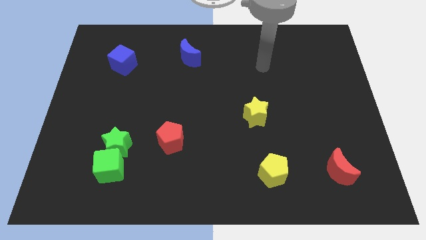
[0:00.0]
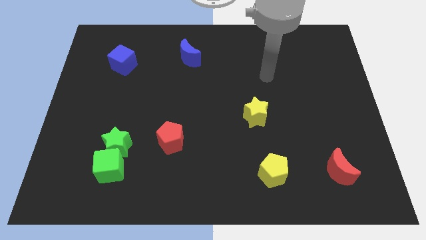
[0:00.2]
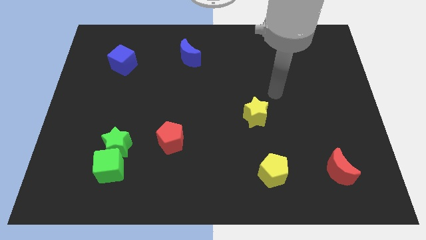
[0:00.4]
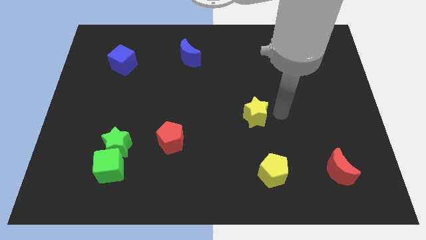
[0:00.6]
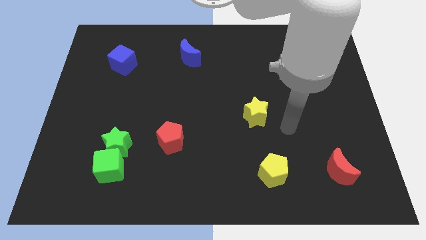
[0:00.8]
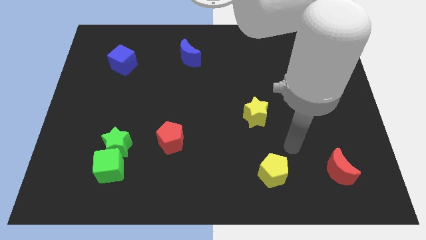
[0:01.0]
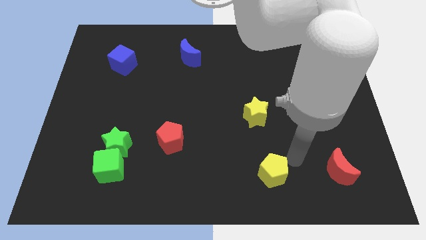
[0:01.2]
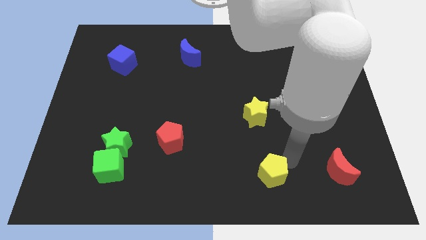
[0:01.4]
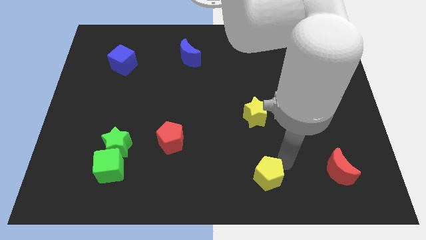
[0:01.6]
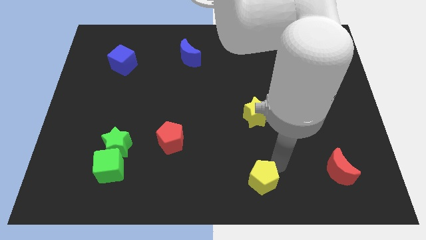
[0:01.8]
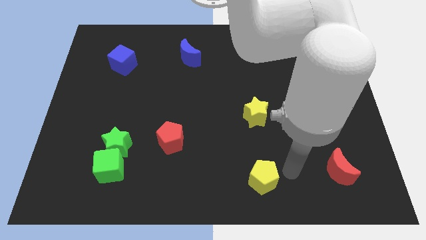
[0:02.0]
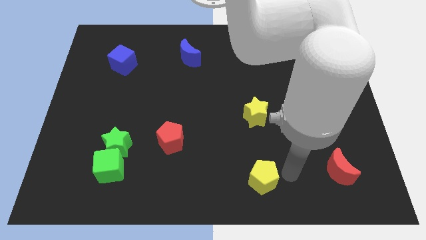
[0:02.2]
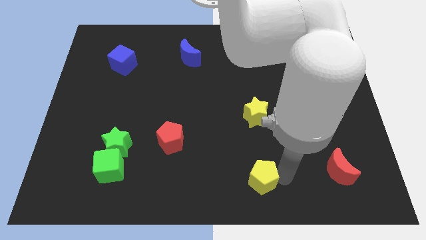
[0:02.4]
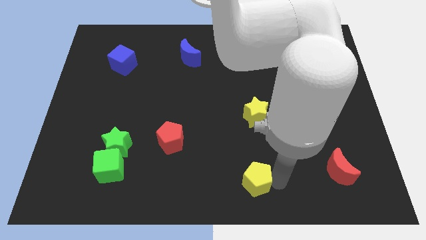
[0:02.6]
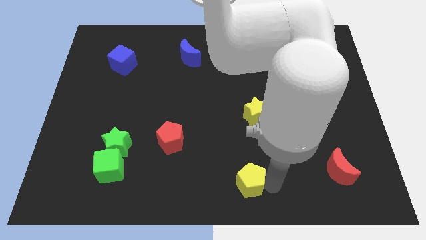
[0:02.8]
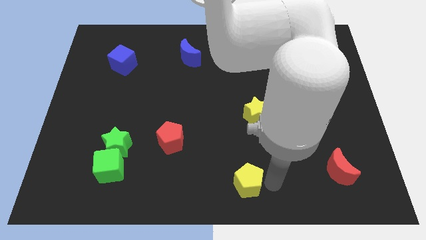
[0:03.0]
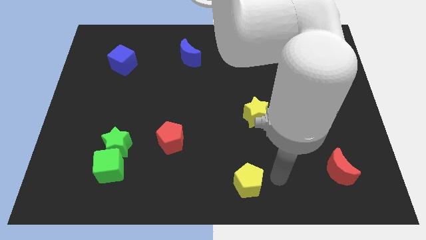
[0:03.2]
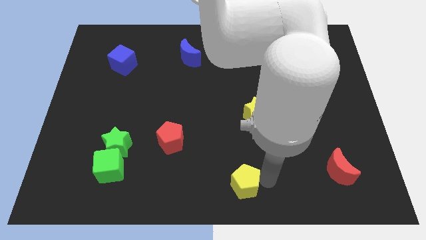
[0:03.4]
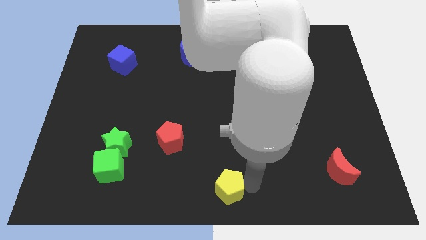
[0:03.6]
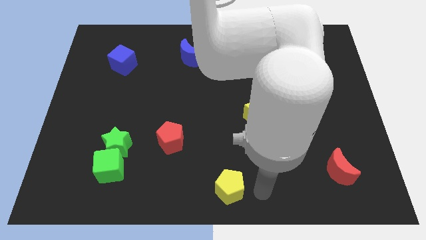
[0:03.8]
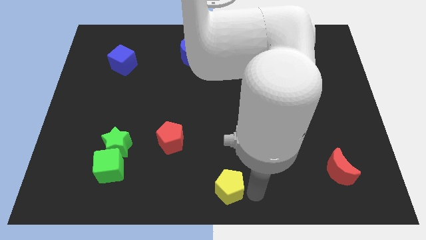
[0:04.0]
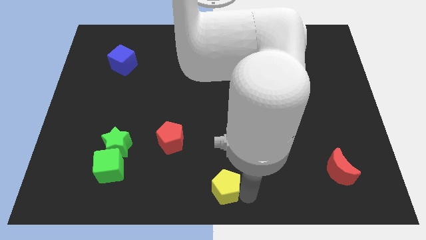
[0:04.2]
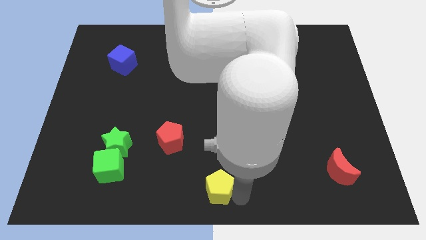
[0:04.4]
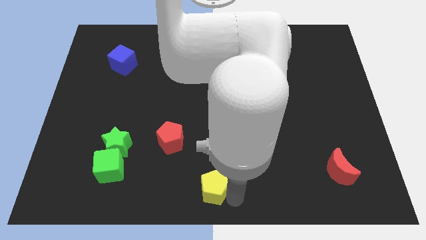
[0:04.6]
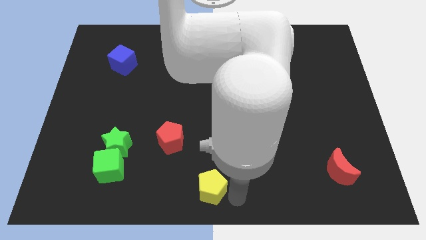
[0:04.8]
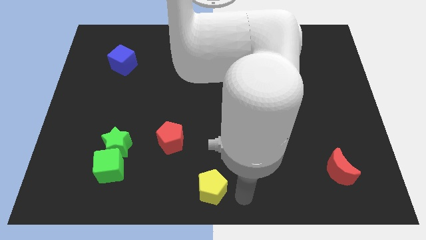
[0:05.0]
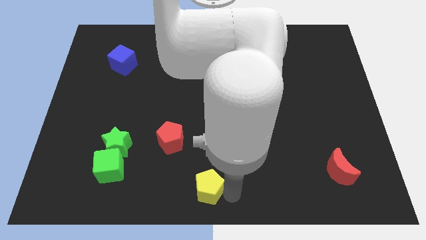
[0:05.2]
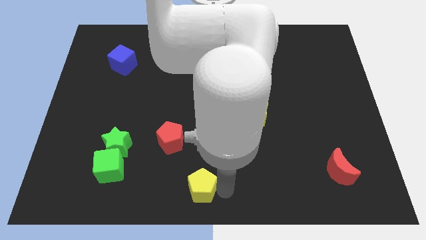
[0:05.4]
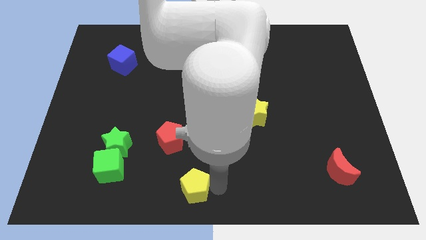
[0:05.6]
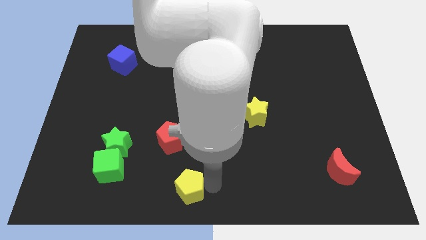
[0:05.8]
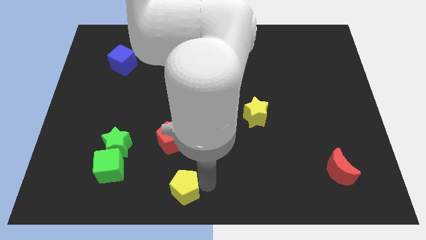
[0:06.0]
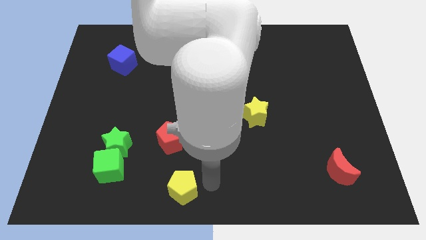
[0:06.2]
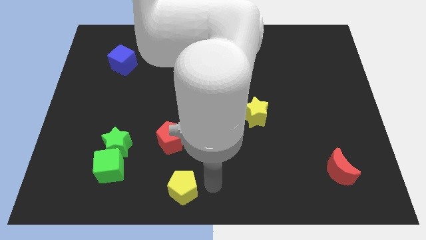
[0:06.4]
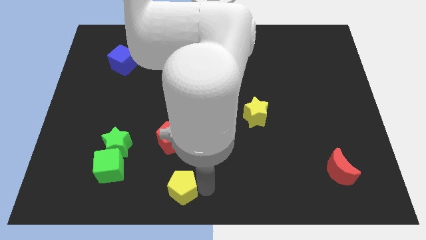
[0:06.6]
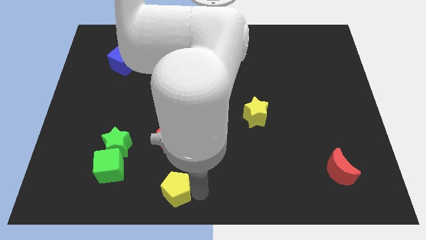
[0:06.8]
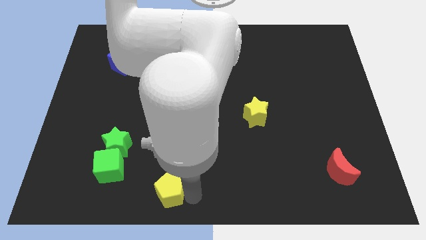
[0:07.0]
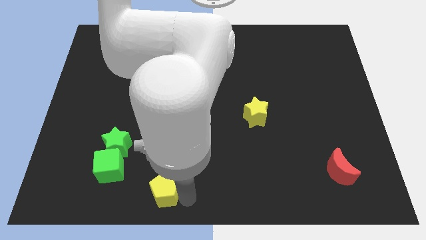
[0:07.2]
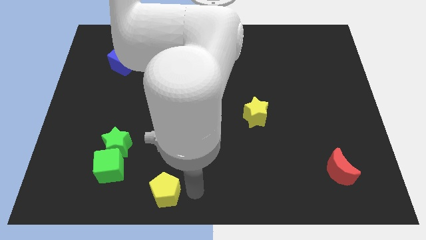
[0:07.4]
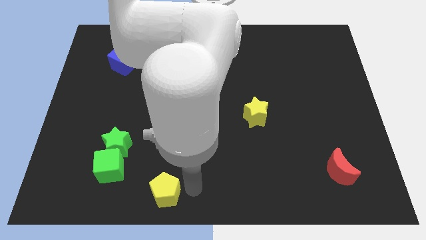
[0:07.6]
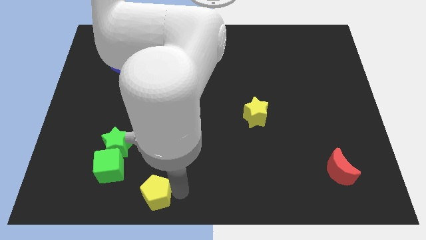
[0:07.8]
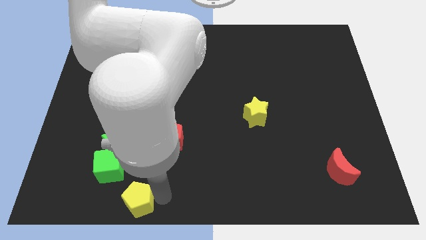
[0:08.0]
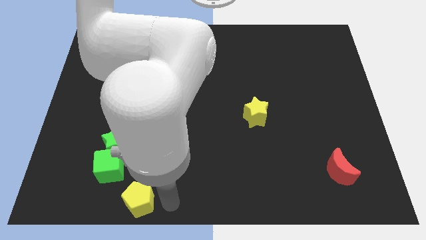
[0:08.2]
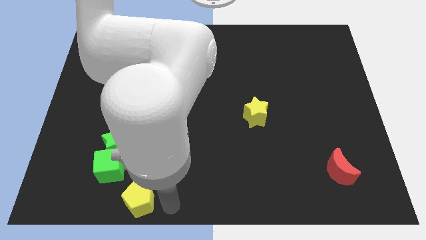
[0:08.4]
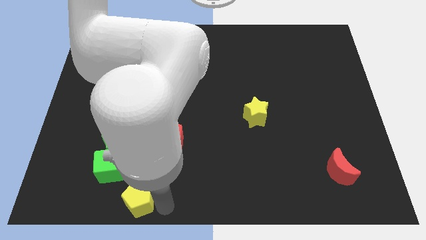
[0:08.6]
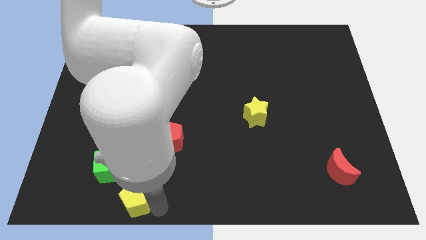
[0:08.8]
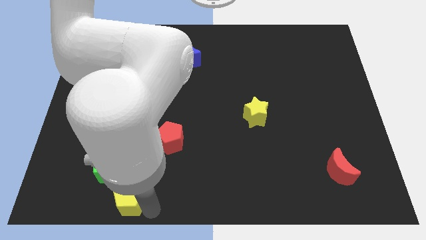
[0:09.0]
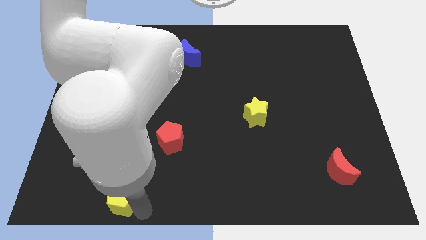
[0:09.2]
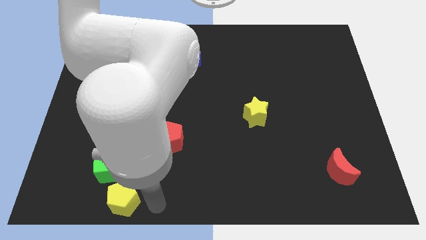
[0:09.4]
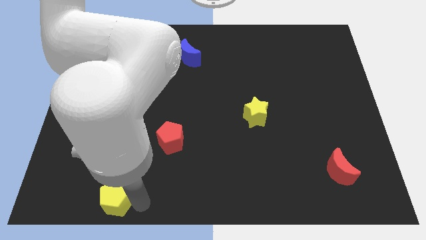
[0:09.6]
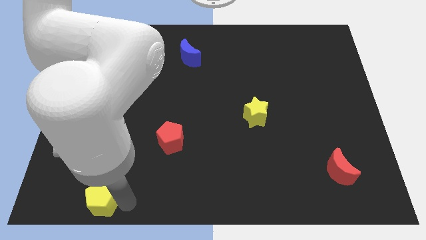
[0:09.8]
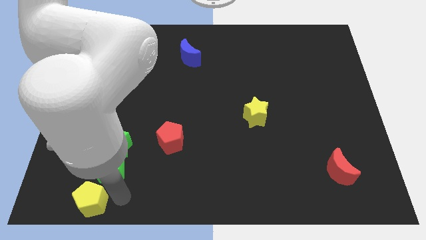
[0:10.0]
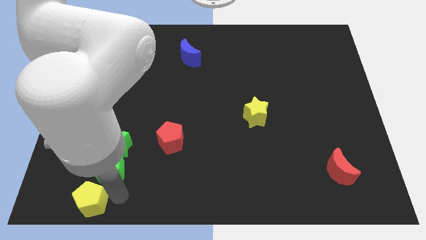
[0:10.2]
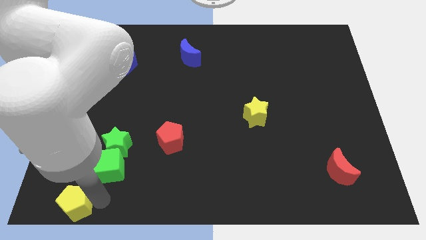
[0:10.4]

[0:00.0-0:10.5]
move the yellow pentagon to the bottom left corner

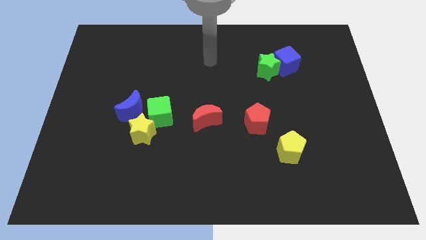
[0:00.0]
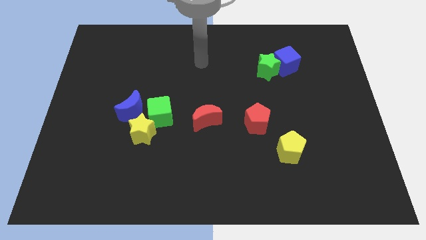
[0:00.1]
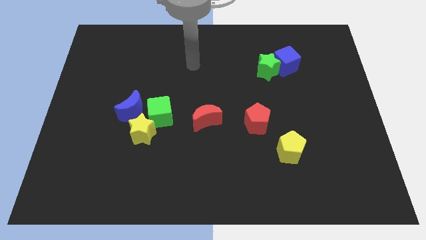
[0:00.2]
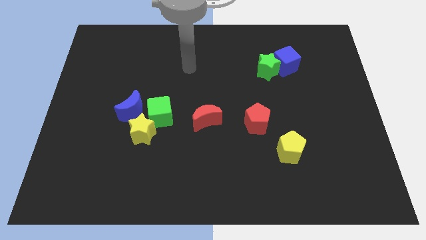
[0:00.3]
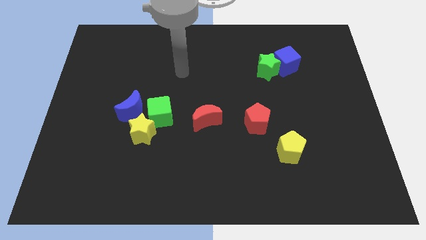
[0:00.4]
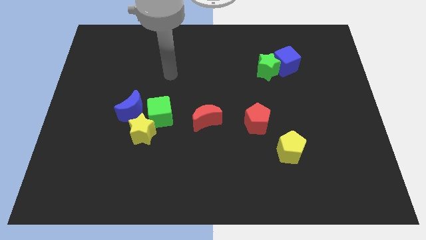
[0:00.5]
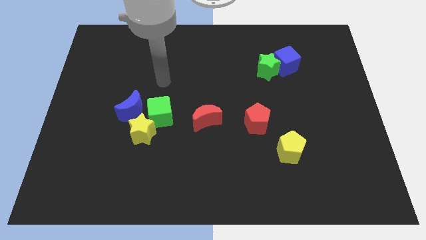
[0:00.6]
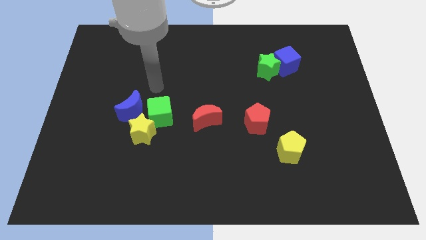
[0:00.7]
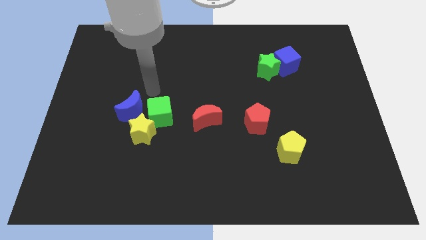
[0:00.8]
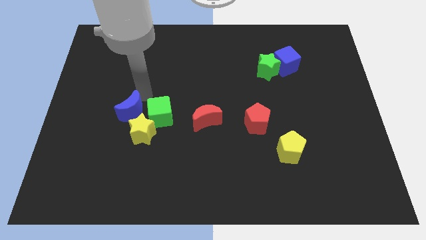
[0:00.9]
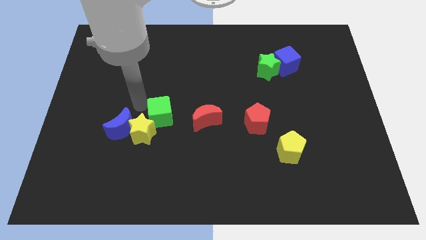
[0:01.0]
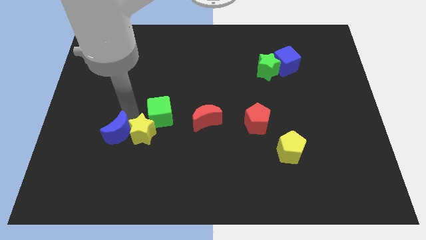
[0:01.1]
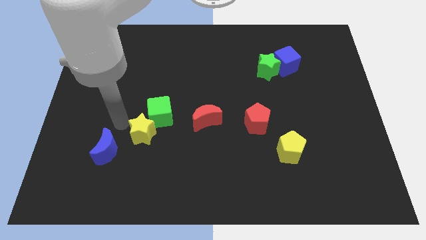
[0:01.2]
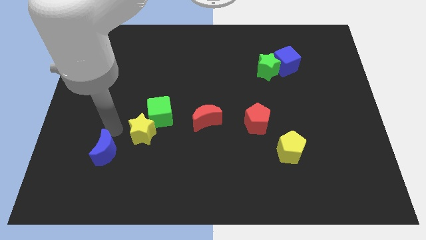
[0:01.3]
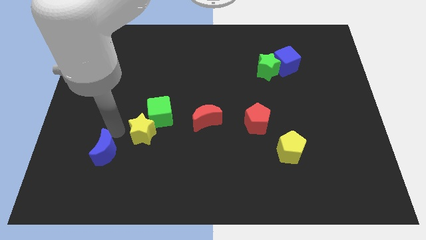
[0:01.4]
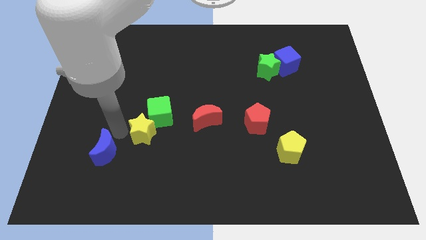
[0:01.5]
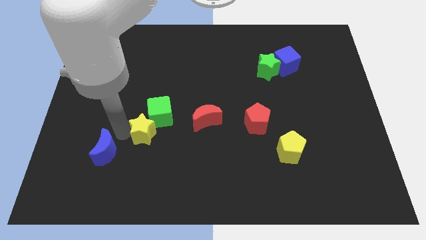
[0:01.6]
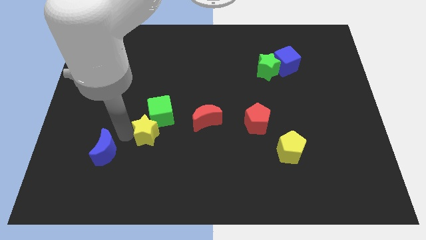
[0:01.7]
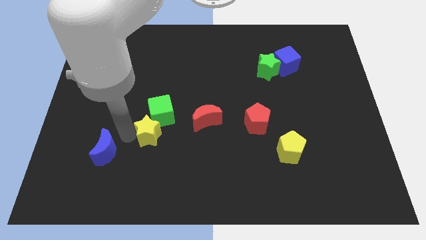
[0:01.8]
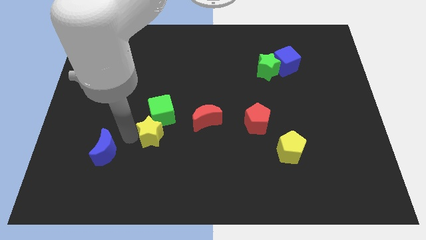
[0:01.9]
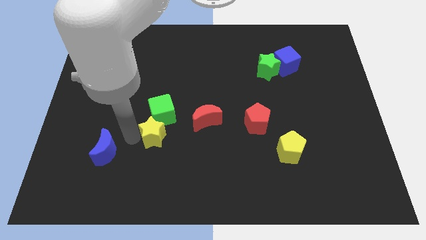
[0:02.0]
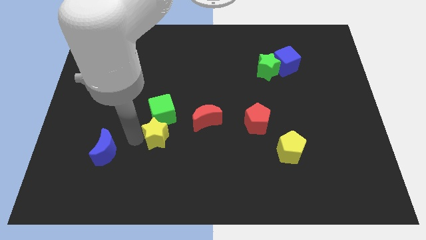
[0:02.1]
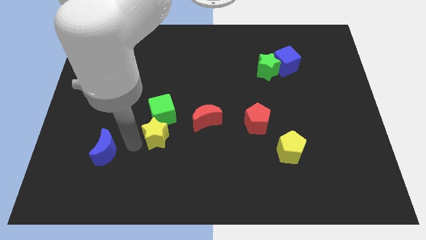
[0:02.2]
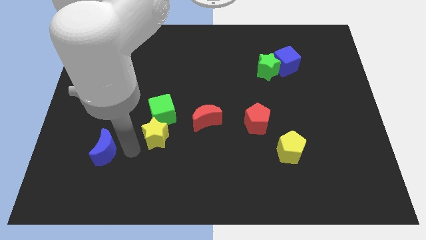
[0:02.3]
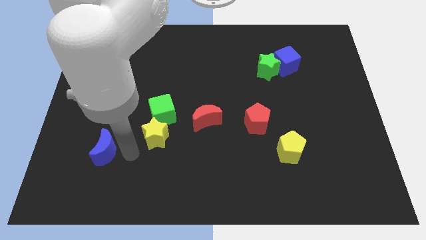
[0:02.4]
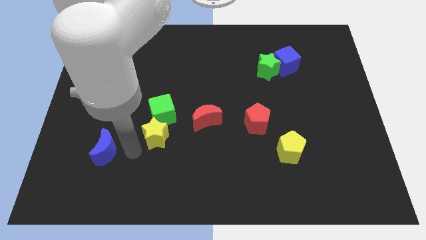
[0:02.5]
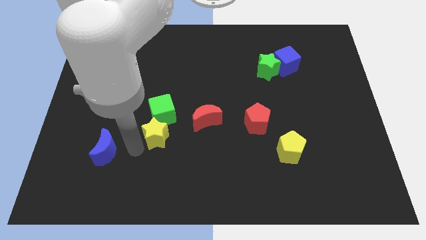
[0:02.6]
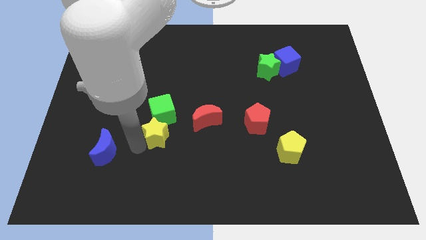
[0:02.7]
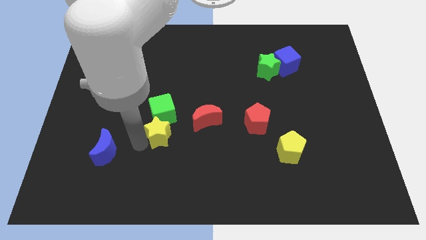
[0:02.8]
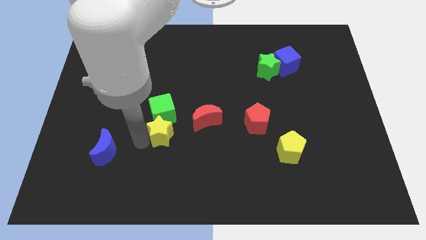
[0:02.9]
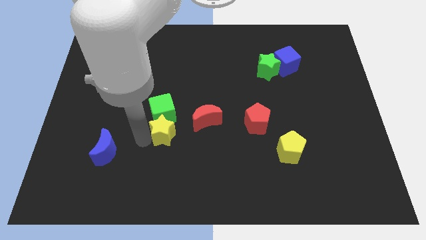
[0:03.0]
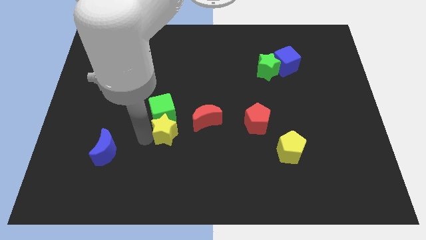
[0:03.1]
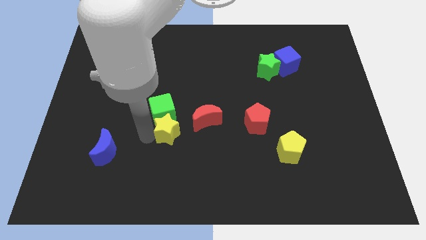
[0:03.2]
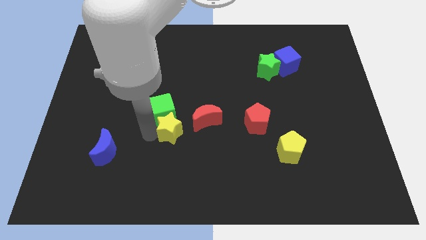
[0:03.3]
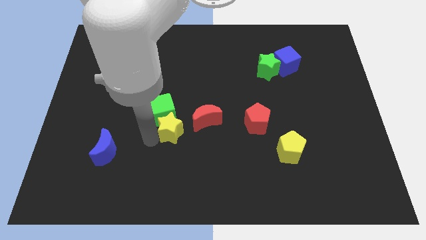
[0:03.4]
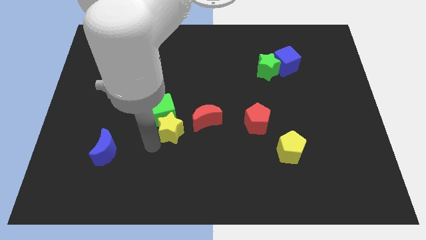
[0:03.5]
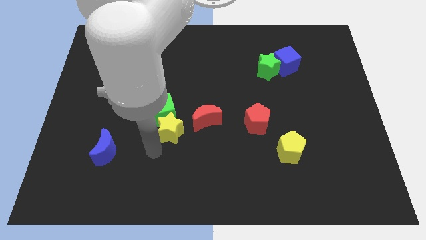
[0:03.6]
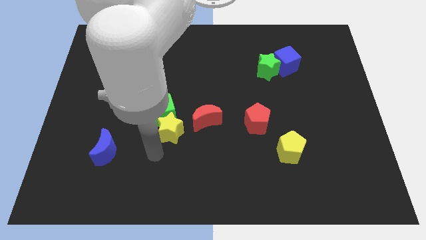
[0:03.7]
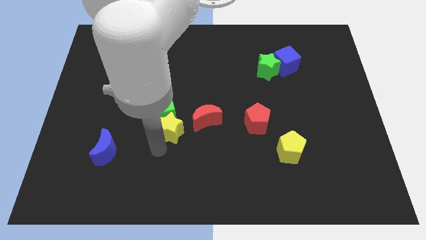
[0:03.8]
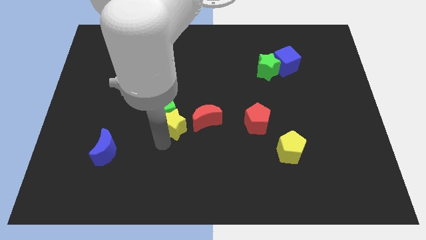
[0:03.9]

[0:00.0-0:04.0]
slide the yellow star to the center of the board
